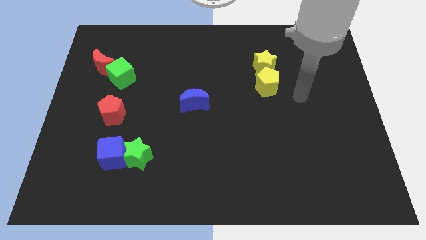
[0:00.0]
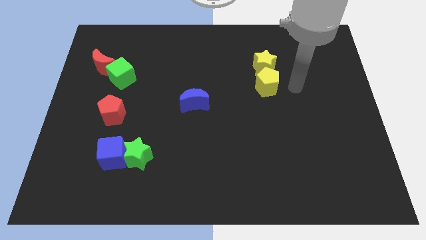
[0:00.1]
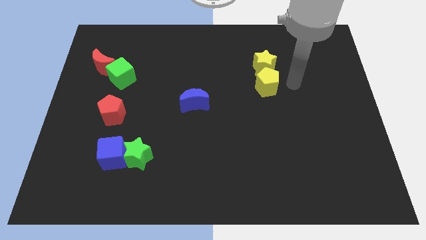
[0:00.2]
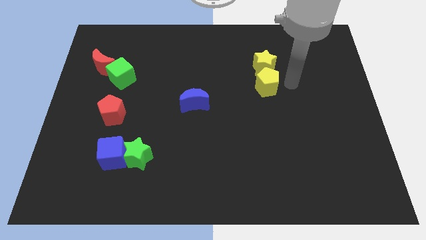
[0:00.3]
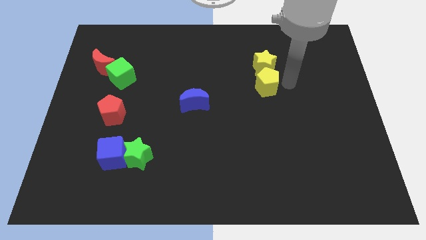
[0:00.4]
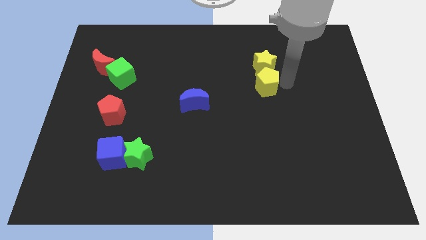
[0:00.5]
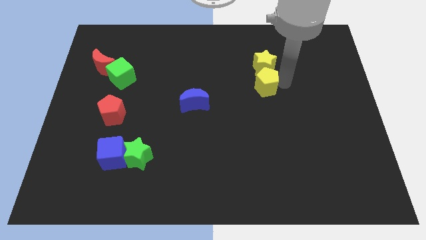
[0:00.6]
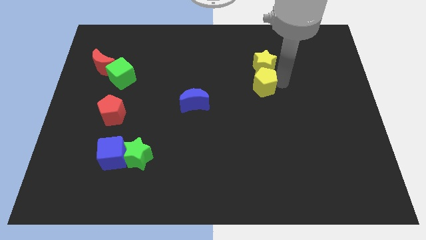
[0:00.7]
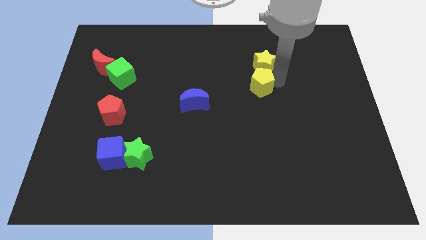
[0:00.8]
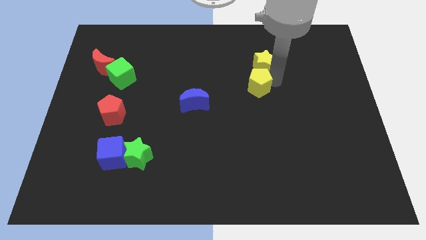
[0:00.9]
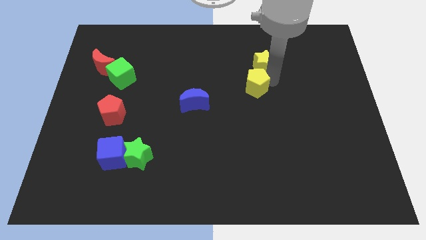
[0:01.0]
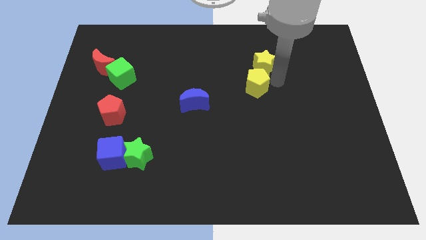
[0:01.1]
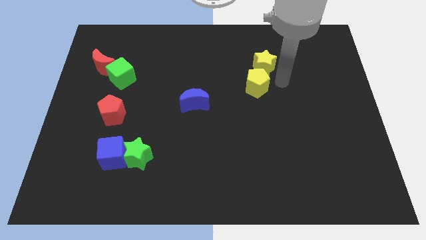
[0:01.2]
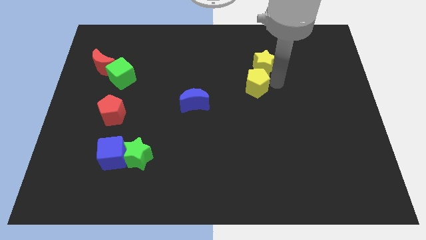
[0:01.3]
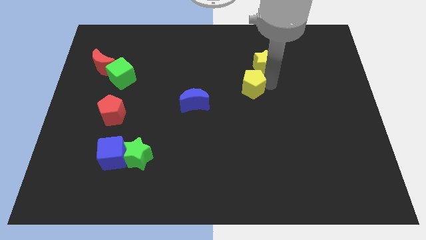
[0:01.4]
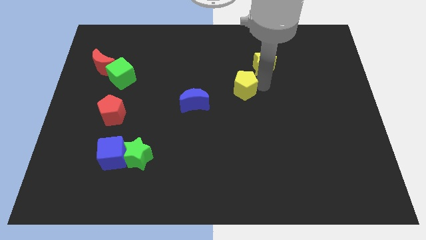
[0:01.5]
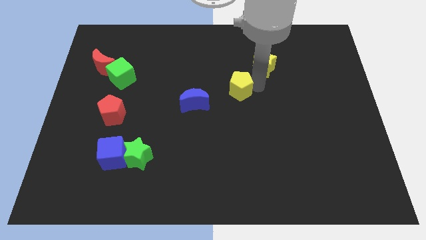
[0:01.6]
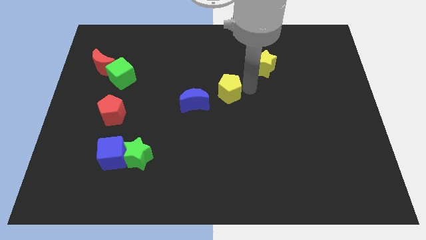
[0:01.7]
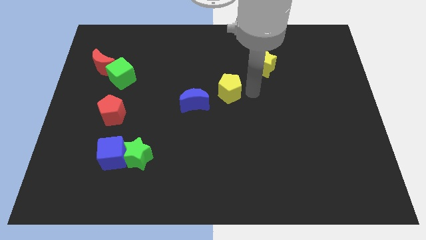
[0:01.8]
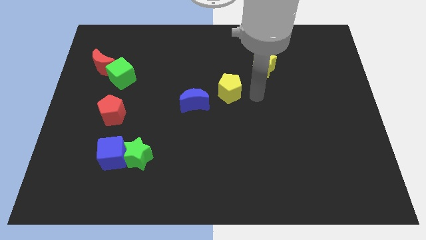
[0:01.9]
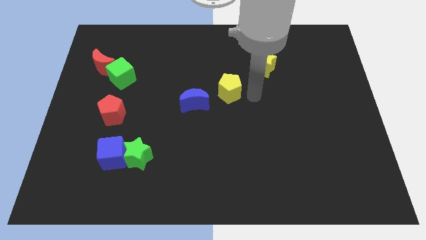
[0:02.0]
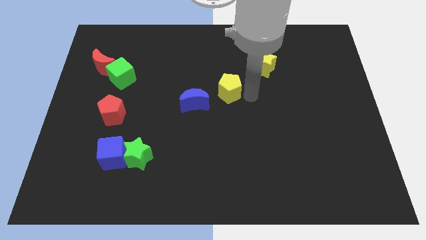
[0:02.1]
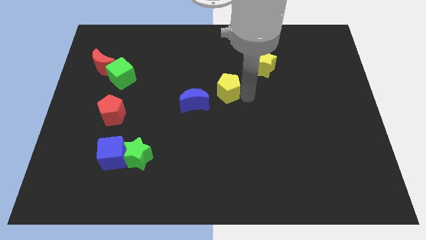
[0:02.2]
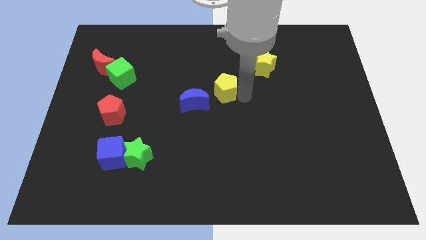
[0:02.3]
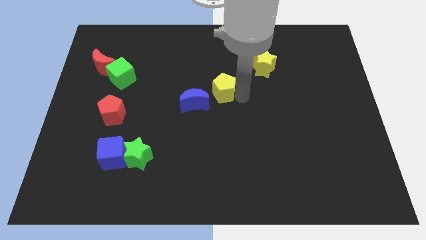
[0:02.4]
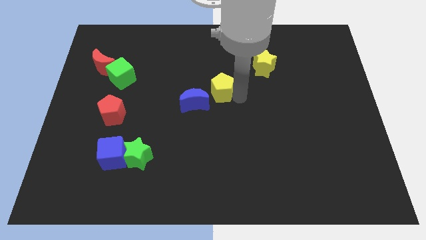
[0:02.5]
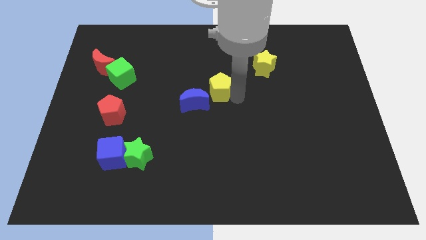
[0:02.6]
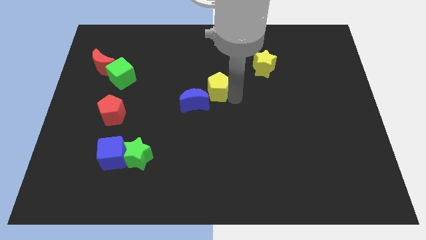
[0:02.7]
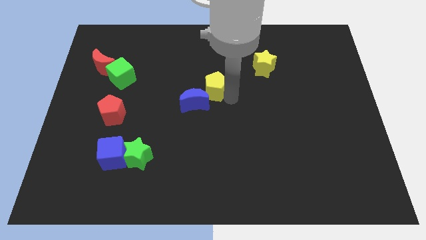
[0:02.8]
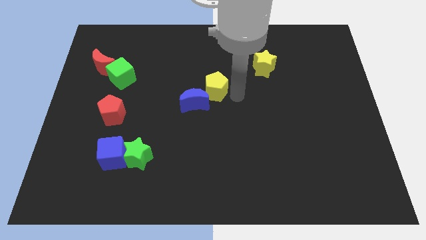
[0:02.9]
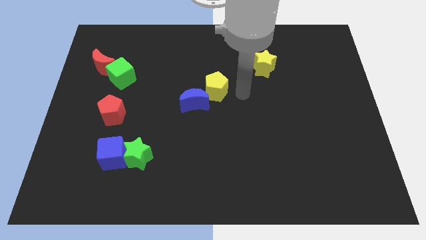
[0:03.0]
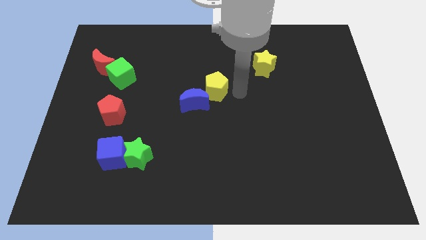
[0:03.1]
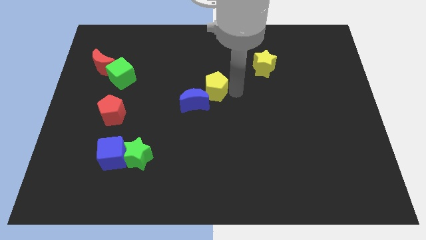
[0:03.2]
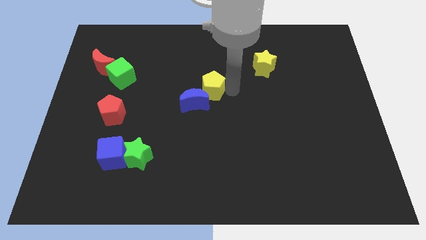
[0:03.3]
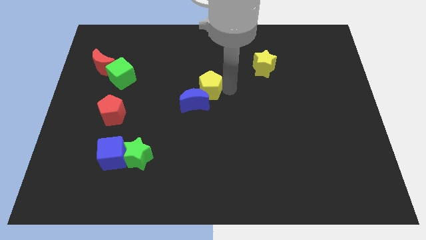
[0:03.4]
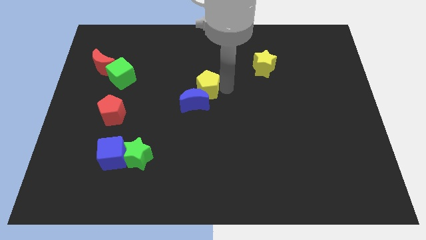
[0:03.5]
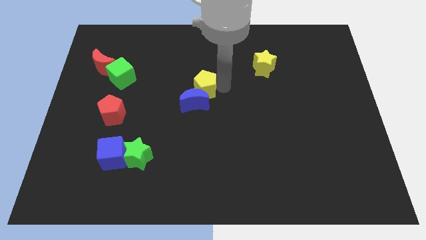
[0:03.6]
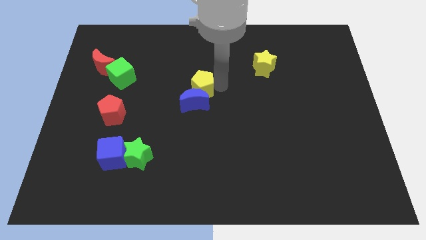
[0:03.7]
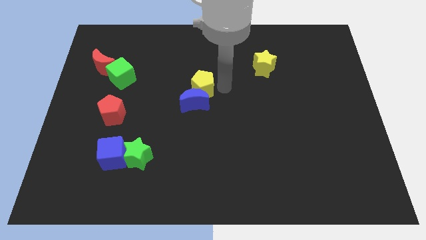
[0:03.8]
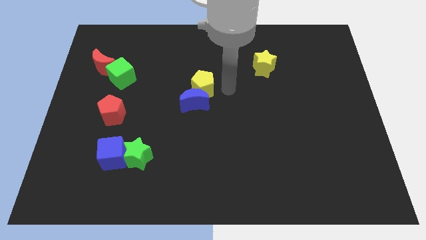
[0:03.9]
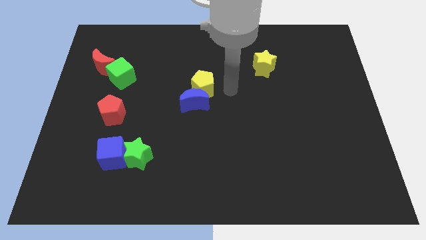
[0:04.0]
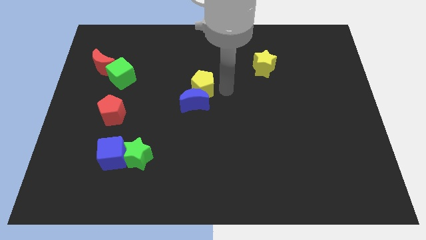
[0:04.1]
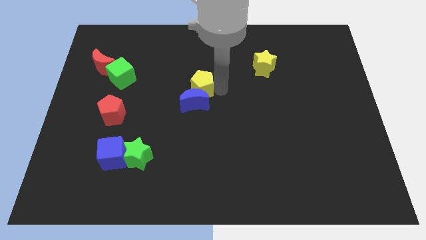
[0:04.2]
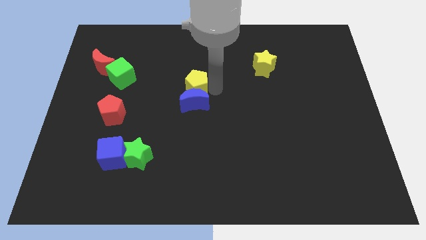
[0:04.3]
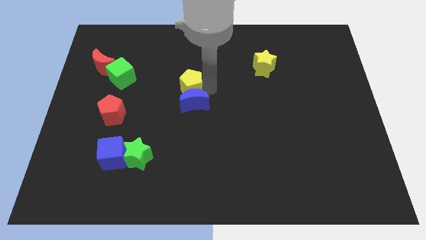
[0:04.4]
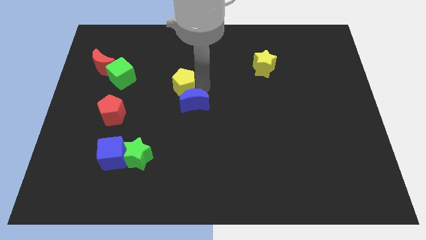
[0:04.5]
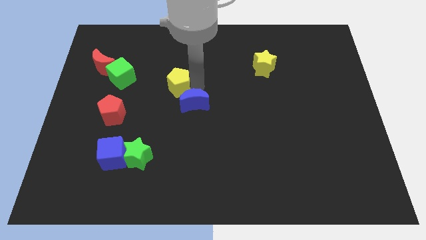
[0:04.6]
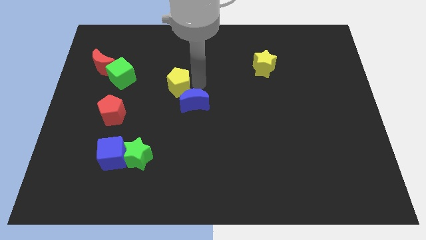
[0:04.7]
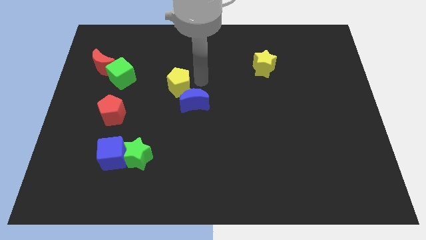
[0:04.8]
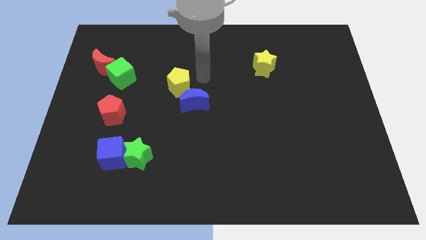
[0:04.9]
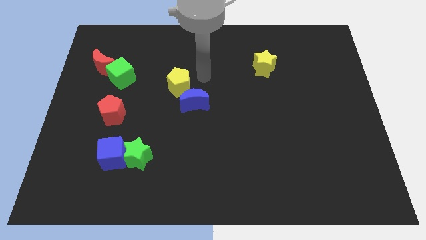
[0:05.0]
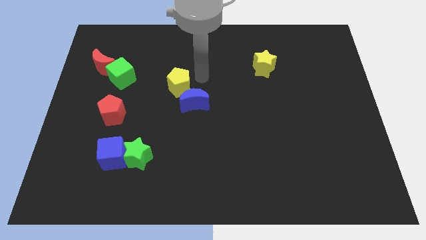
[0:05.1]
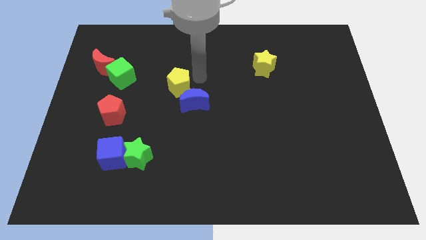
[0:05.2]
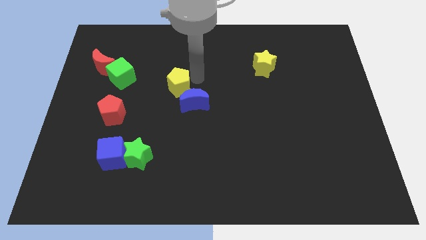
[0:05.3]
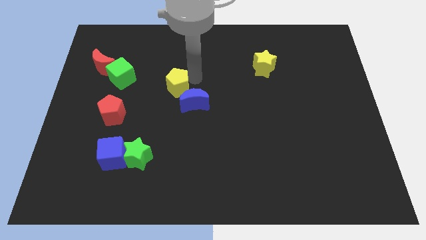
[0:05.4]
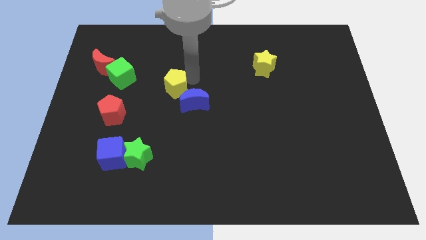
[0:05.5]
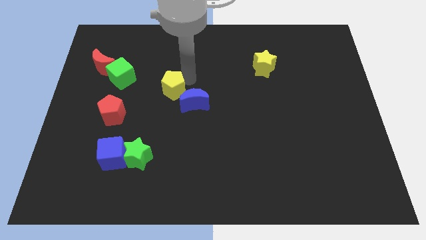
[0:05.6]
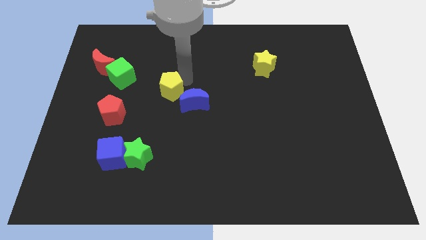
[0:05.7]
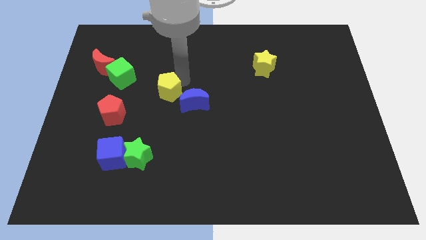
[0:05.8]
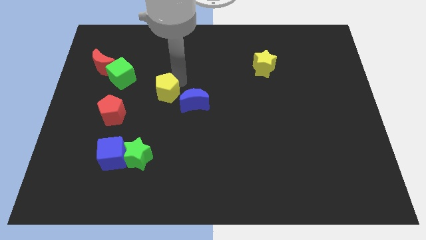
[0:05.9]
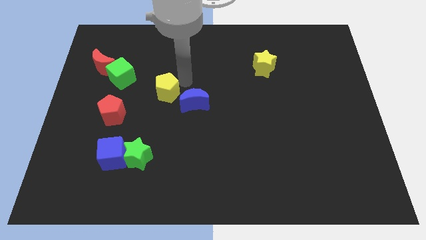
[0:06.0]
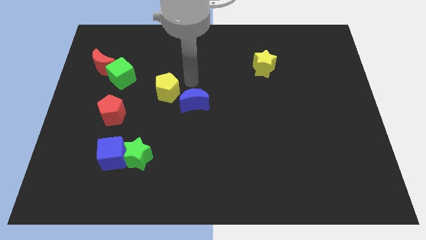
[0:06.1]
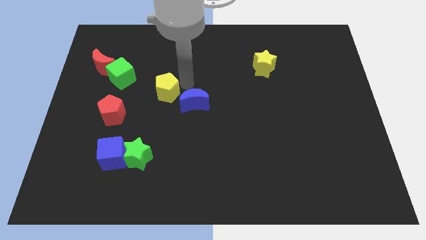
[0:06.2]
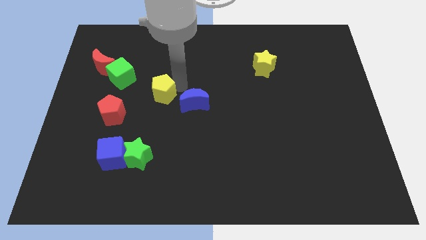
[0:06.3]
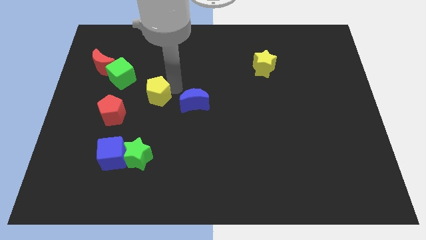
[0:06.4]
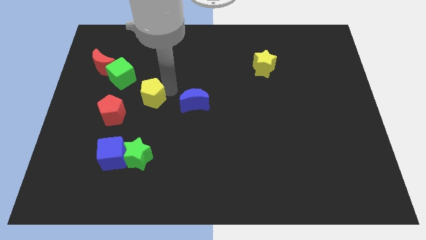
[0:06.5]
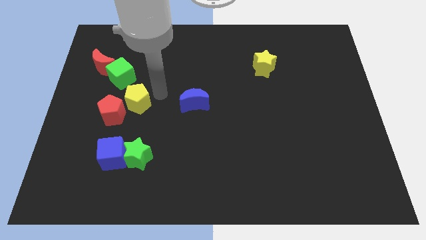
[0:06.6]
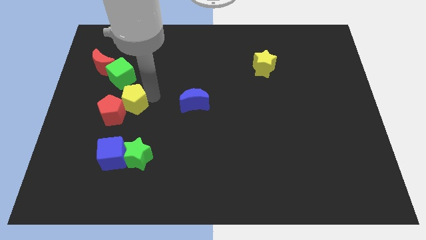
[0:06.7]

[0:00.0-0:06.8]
move the yellow pentagon close to the red pentagon

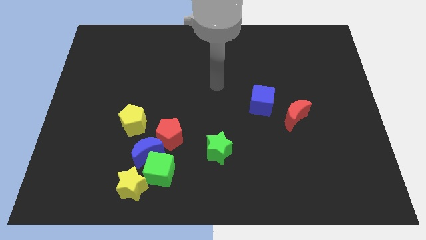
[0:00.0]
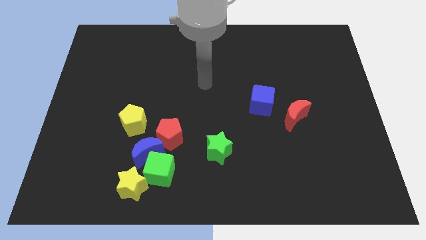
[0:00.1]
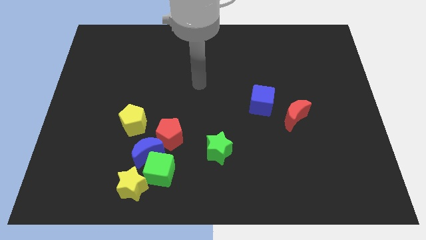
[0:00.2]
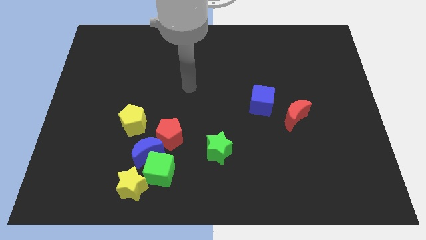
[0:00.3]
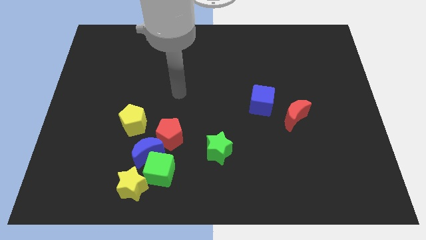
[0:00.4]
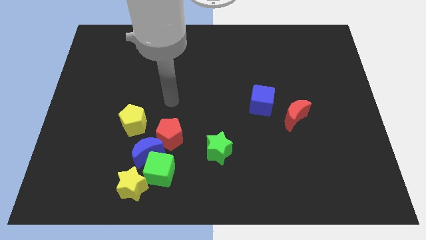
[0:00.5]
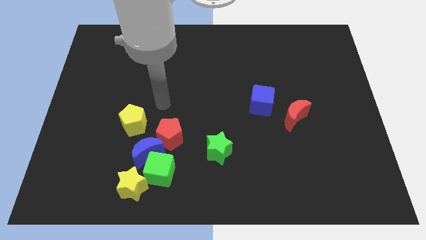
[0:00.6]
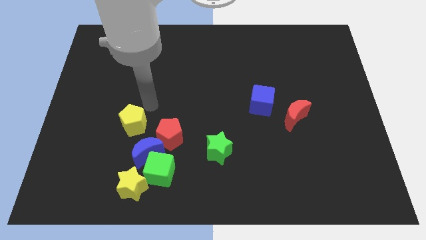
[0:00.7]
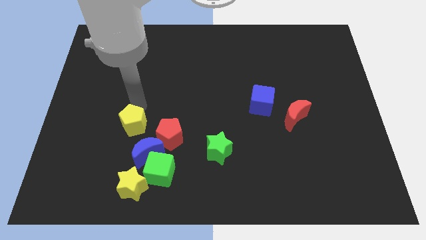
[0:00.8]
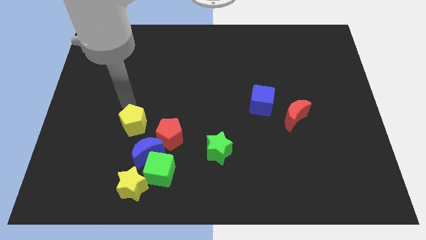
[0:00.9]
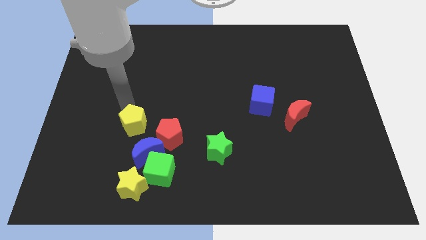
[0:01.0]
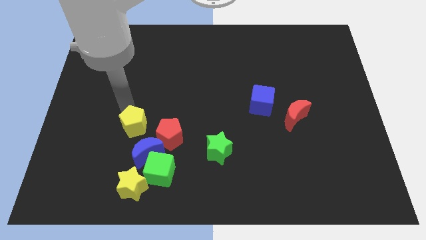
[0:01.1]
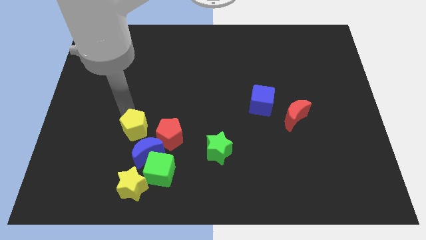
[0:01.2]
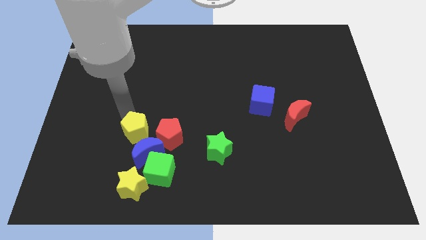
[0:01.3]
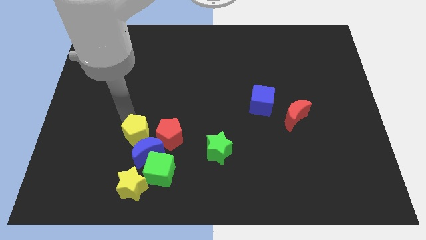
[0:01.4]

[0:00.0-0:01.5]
put the yellow pentagon to the blue moon
